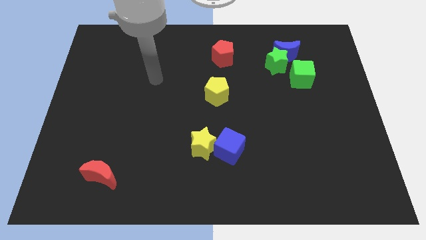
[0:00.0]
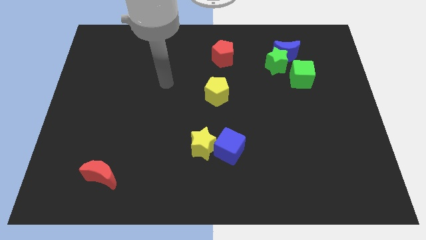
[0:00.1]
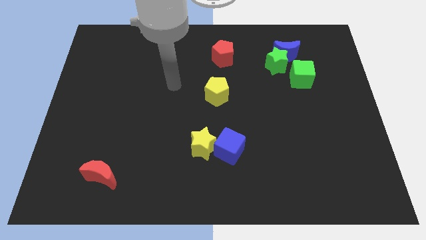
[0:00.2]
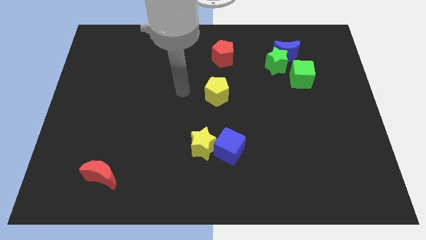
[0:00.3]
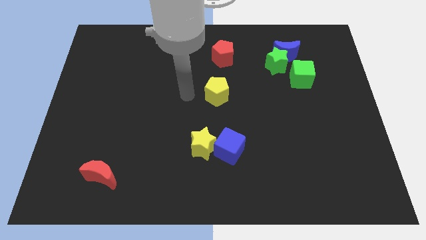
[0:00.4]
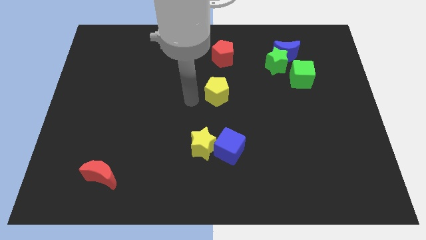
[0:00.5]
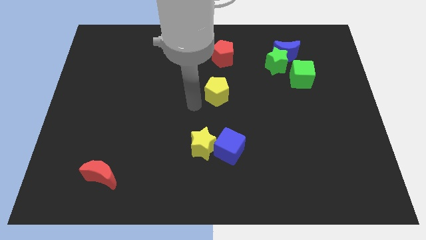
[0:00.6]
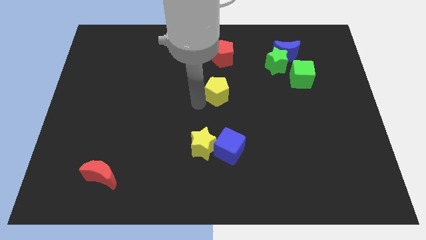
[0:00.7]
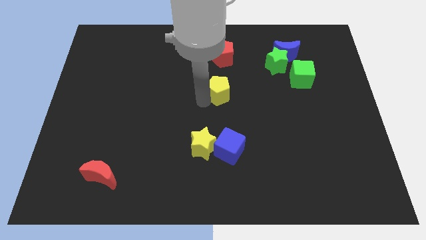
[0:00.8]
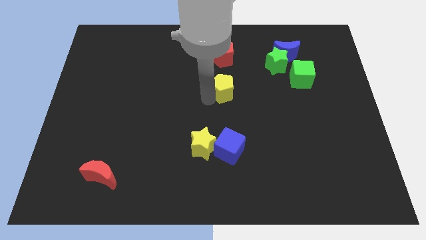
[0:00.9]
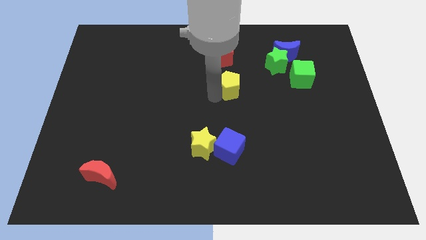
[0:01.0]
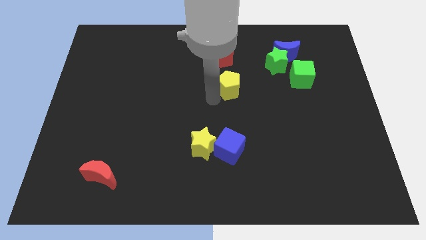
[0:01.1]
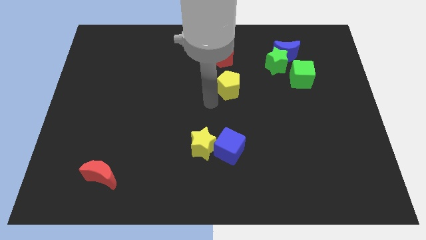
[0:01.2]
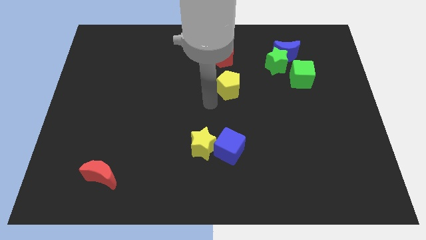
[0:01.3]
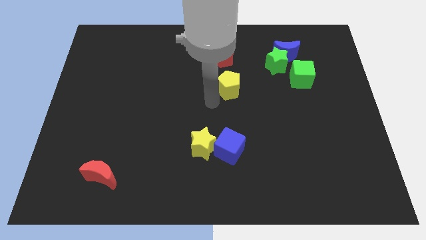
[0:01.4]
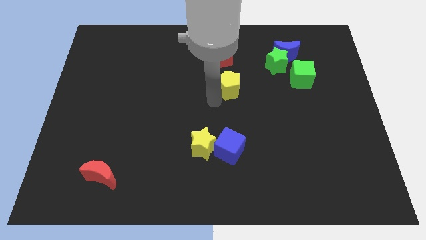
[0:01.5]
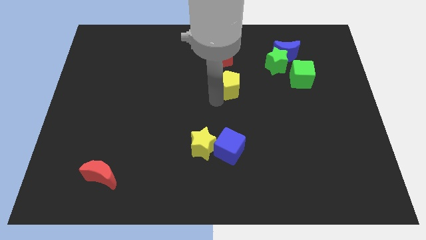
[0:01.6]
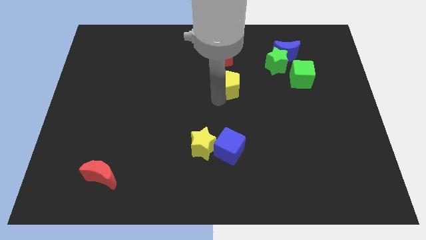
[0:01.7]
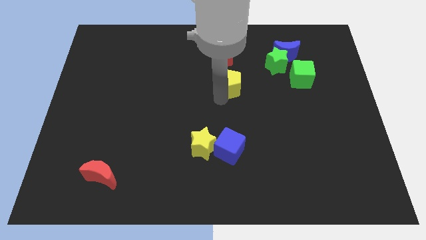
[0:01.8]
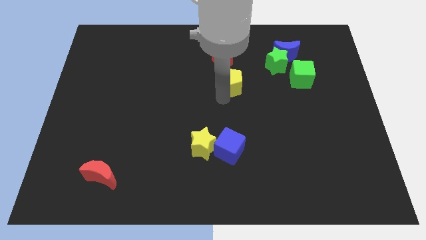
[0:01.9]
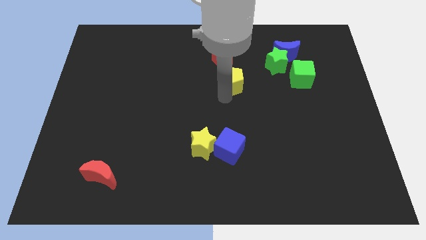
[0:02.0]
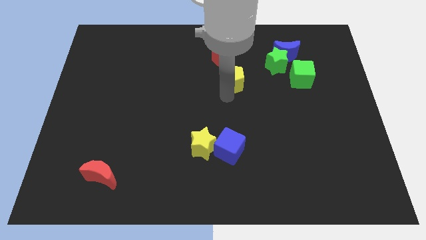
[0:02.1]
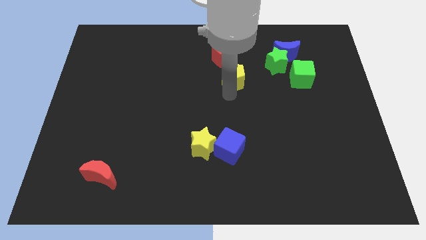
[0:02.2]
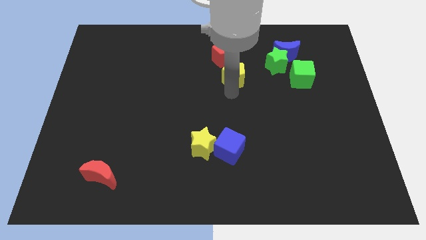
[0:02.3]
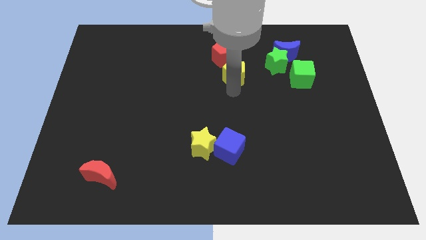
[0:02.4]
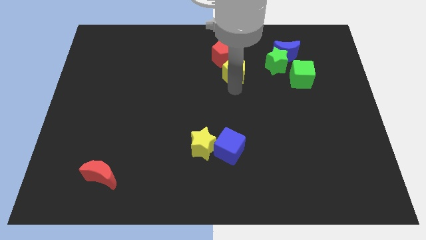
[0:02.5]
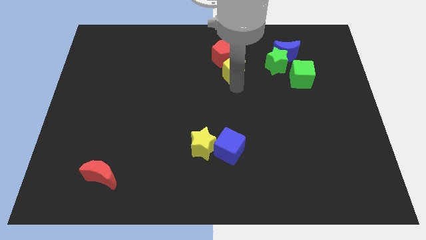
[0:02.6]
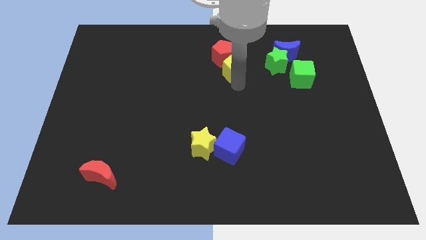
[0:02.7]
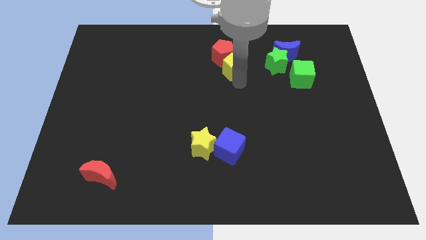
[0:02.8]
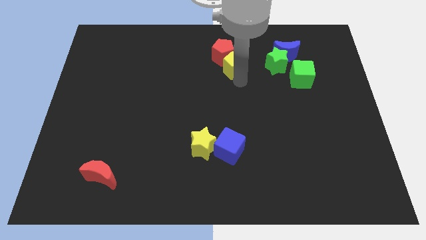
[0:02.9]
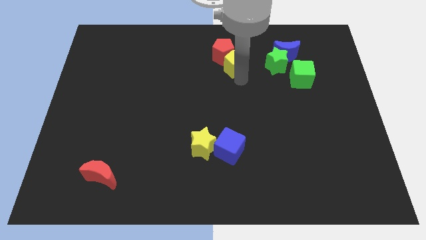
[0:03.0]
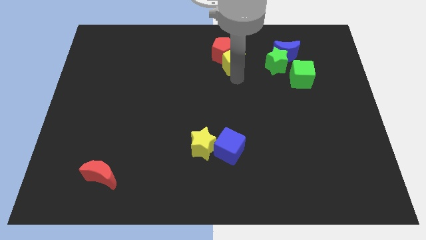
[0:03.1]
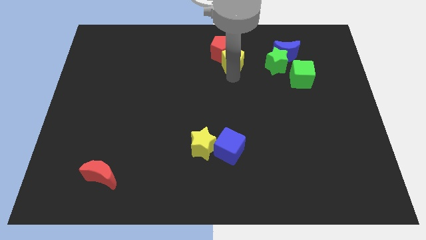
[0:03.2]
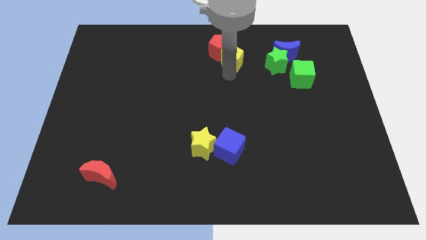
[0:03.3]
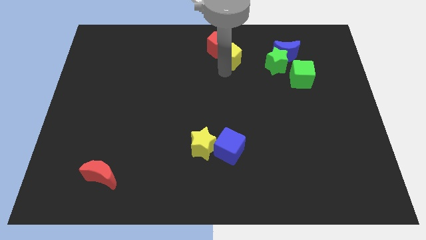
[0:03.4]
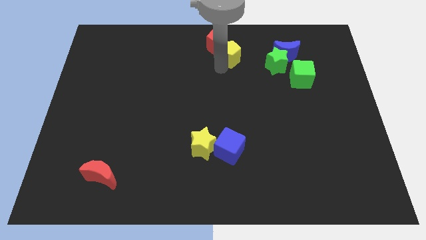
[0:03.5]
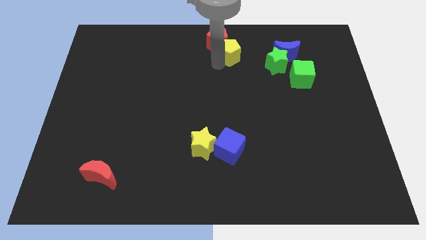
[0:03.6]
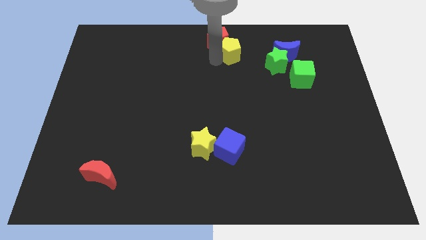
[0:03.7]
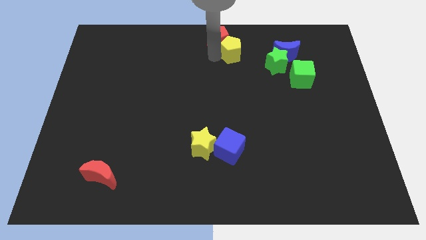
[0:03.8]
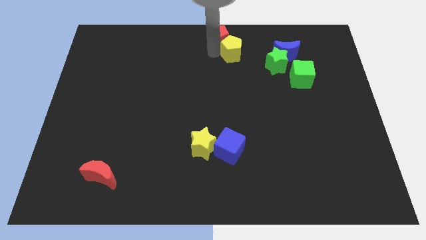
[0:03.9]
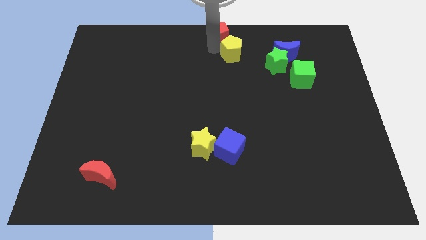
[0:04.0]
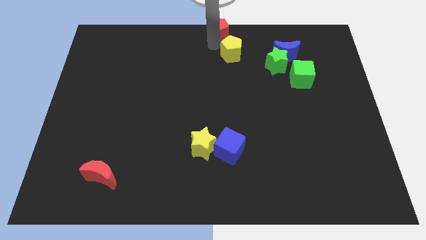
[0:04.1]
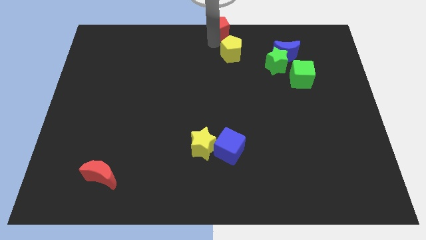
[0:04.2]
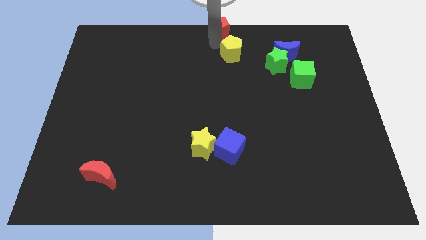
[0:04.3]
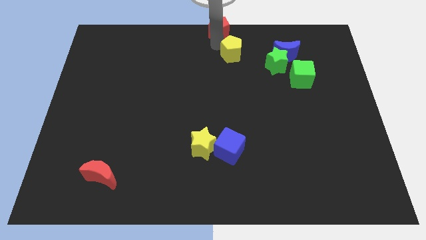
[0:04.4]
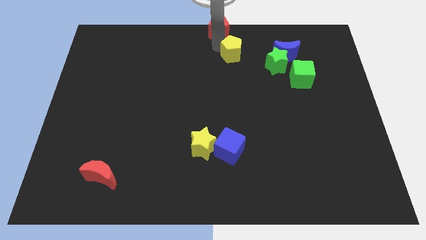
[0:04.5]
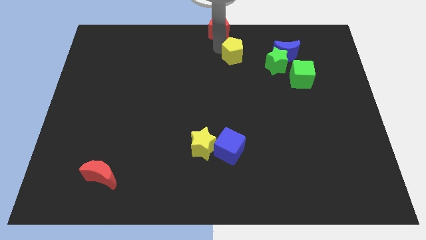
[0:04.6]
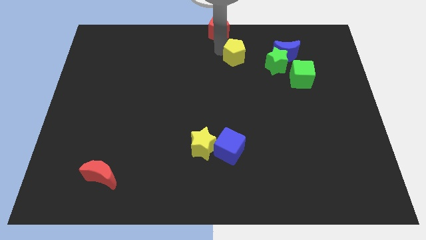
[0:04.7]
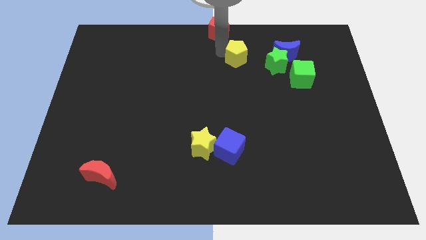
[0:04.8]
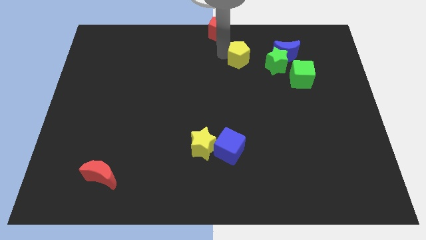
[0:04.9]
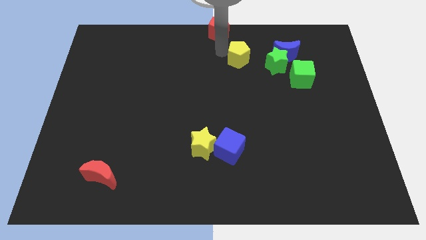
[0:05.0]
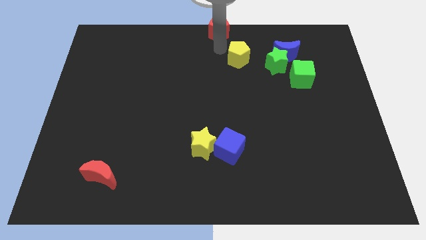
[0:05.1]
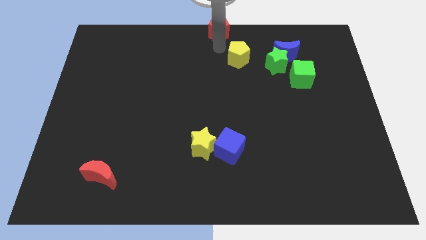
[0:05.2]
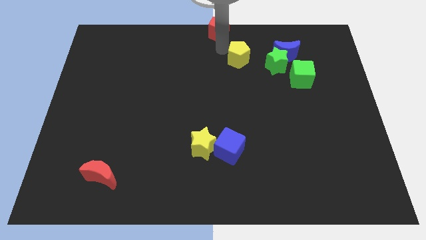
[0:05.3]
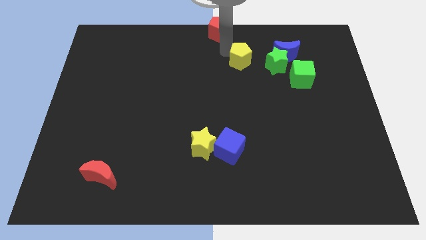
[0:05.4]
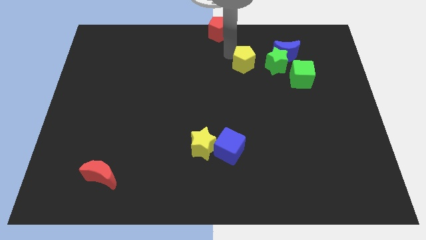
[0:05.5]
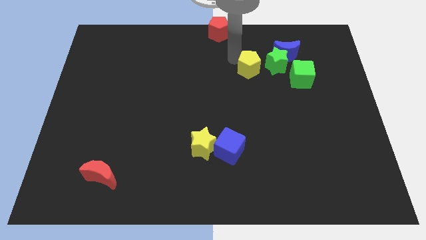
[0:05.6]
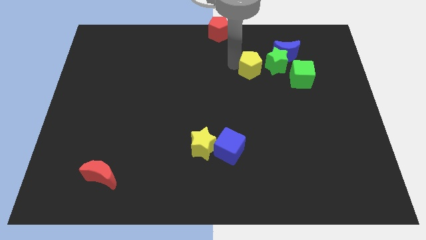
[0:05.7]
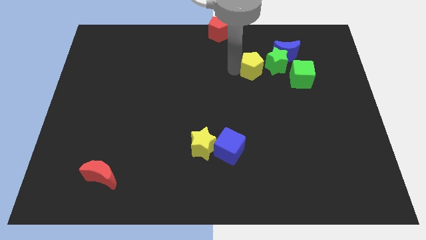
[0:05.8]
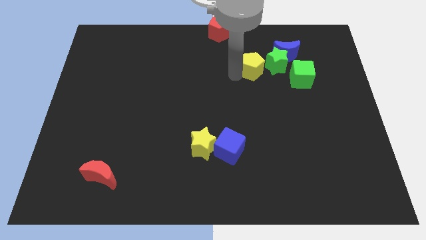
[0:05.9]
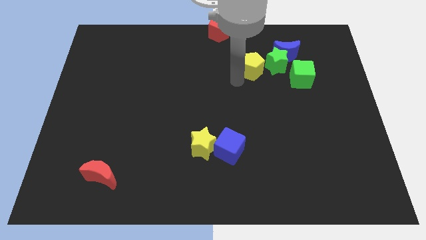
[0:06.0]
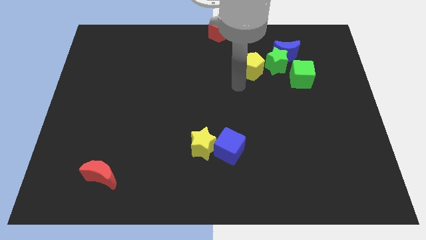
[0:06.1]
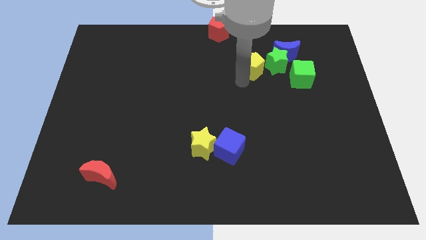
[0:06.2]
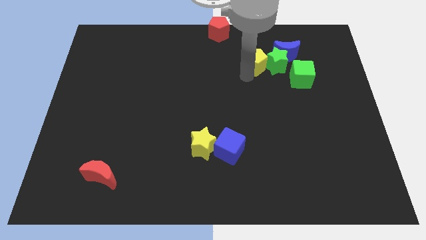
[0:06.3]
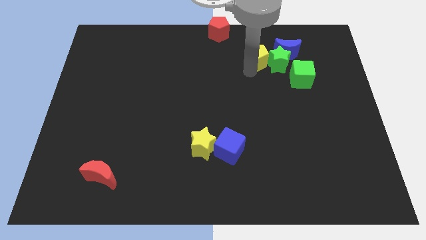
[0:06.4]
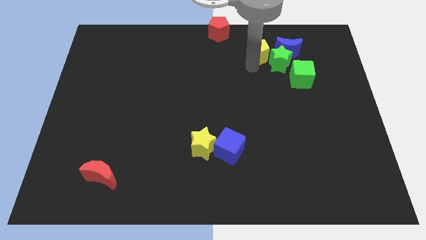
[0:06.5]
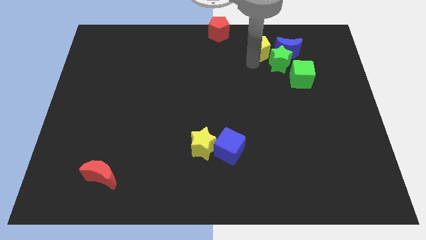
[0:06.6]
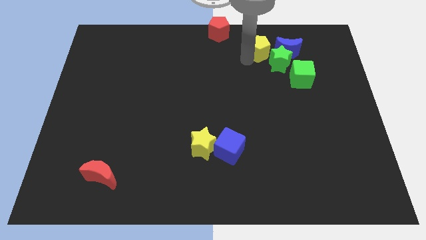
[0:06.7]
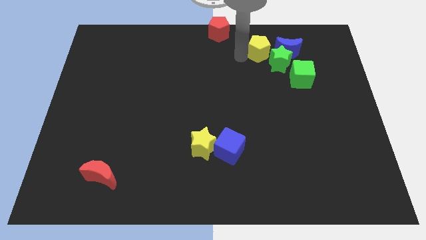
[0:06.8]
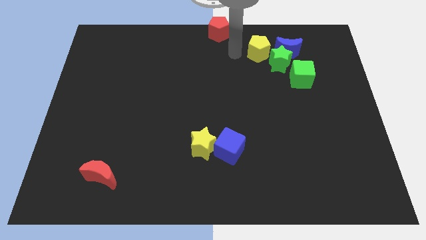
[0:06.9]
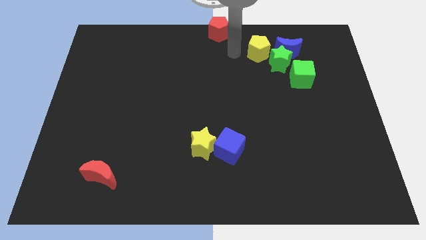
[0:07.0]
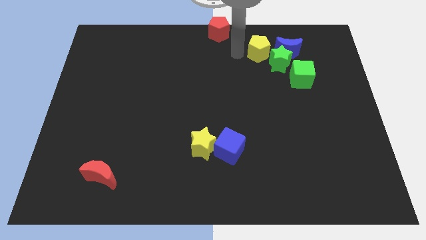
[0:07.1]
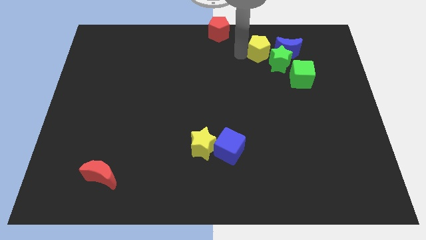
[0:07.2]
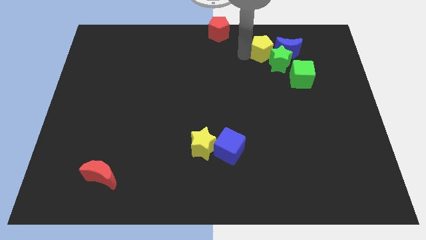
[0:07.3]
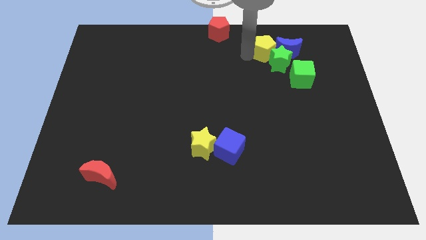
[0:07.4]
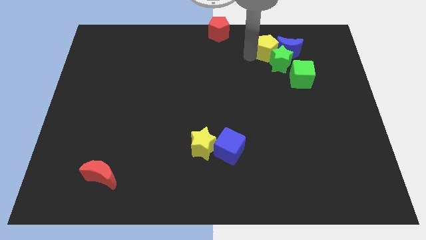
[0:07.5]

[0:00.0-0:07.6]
slide the yellow pentagon towards the blue moon
